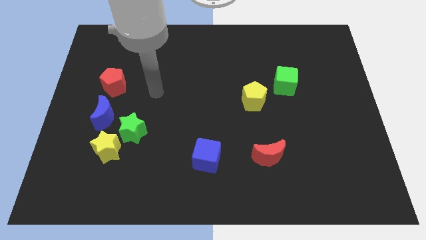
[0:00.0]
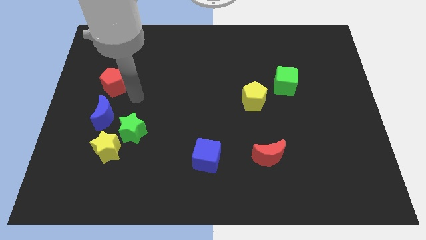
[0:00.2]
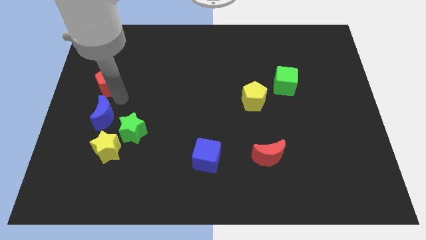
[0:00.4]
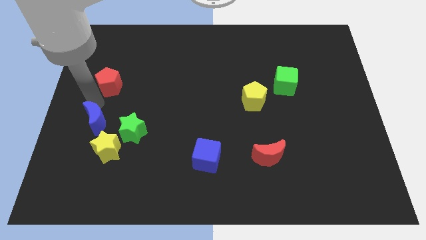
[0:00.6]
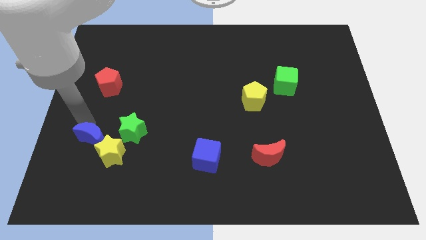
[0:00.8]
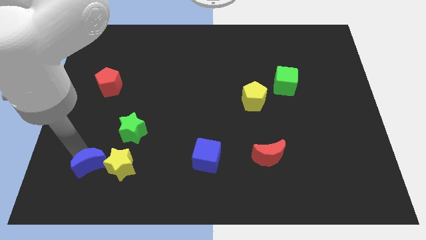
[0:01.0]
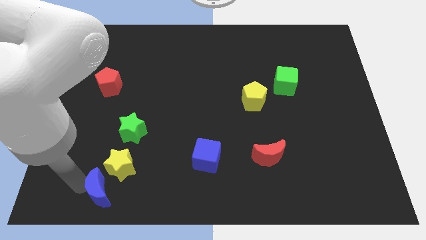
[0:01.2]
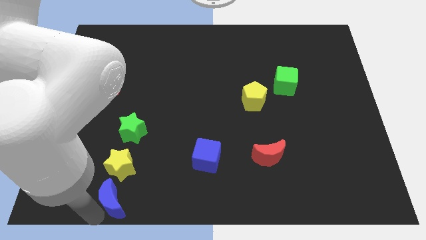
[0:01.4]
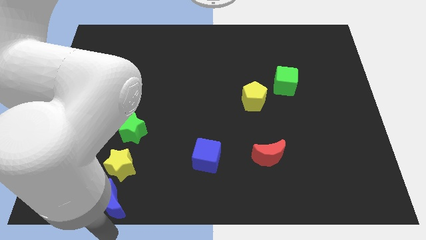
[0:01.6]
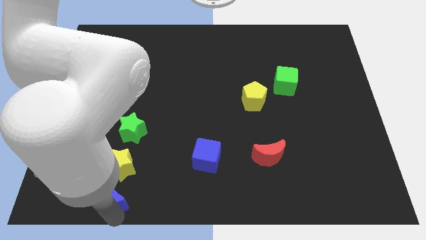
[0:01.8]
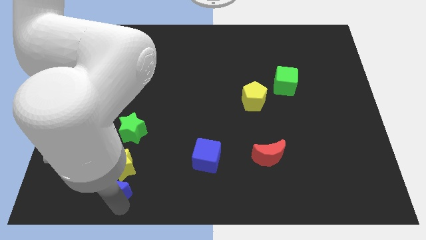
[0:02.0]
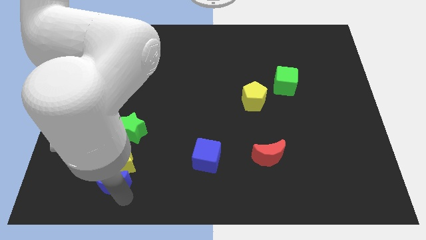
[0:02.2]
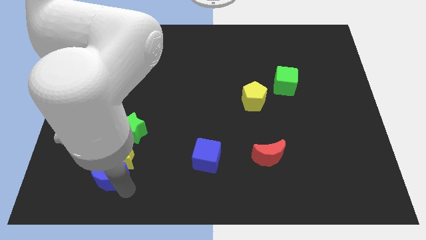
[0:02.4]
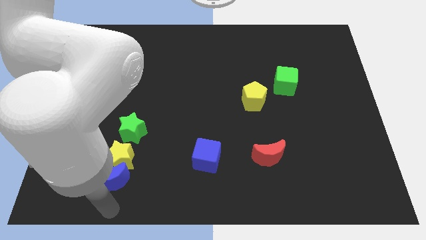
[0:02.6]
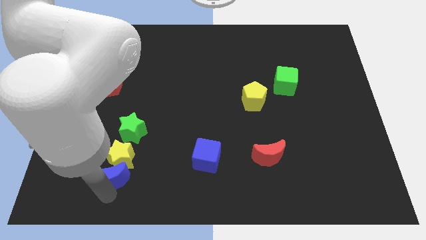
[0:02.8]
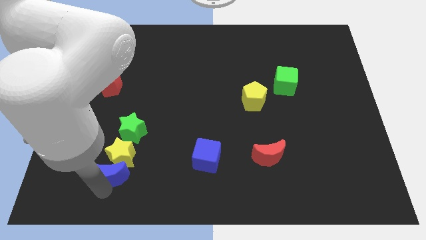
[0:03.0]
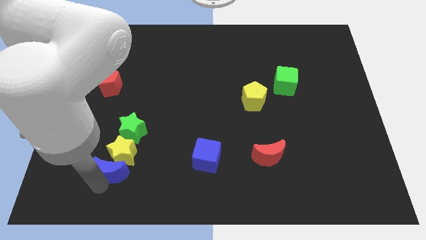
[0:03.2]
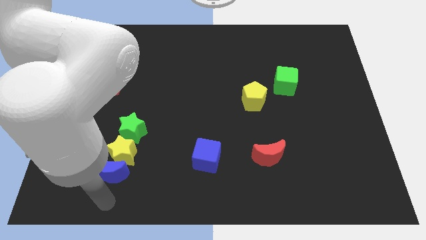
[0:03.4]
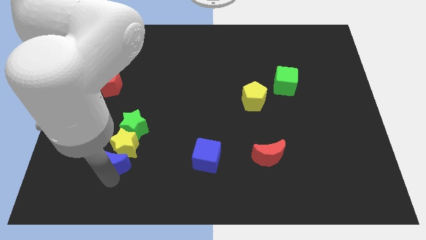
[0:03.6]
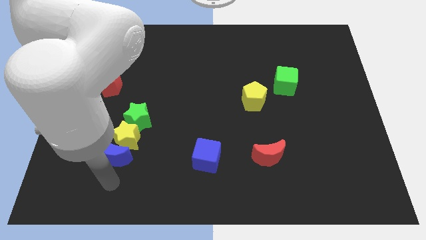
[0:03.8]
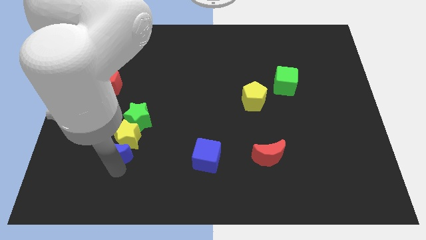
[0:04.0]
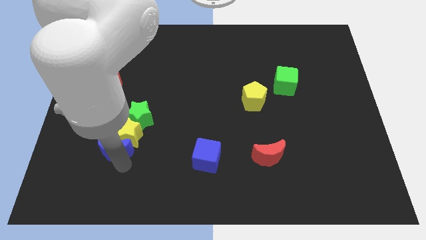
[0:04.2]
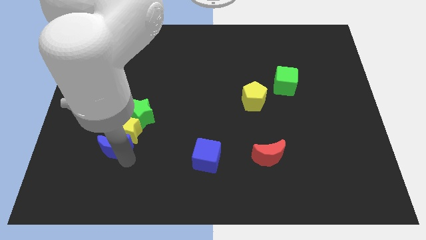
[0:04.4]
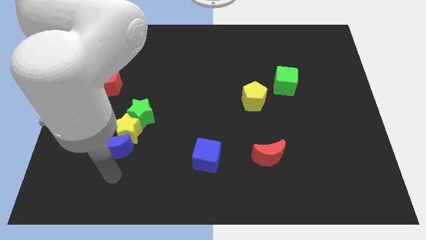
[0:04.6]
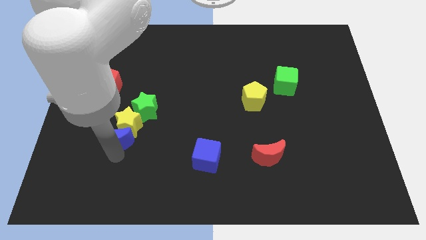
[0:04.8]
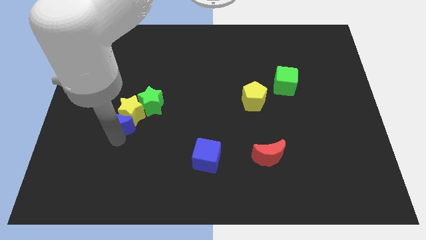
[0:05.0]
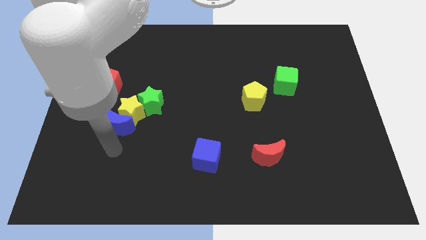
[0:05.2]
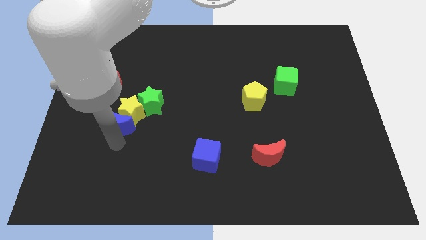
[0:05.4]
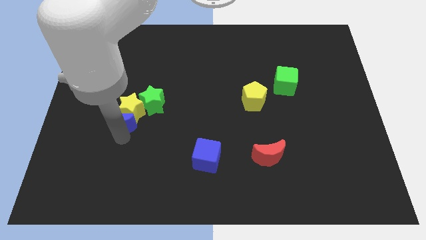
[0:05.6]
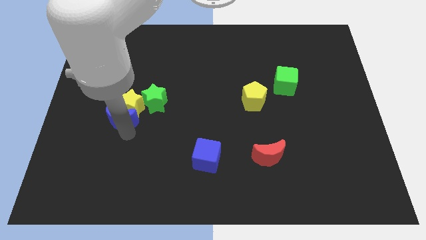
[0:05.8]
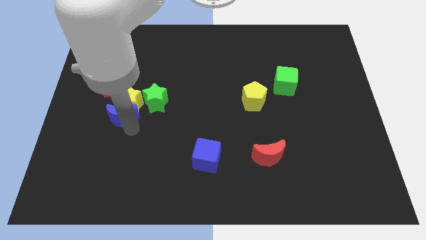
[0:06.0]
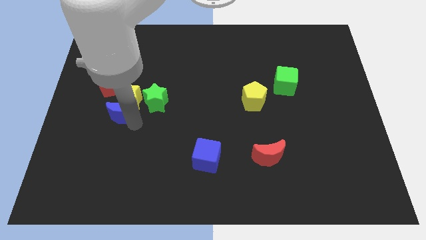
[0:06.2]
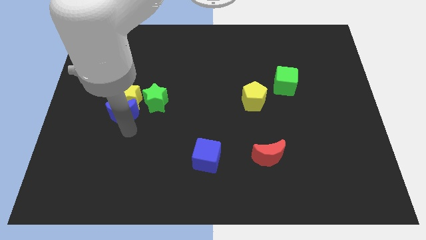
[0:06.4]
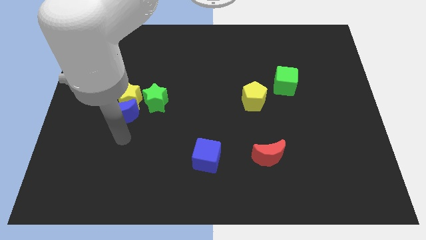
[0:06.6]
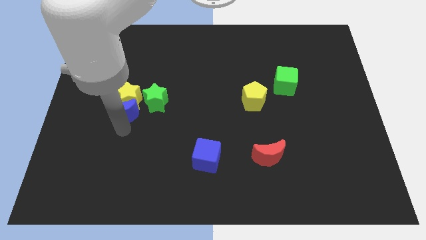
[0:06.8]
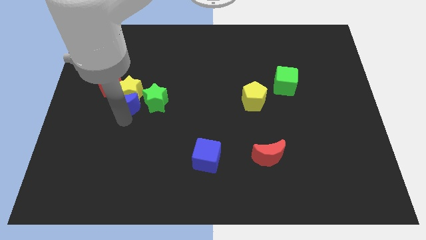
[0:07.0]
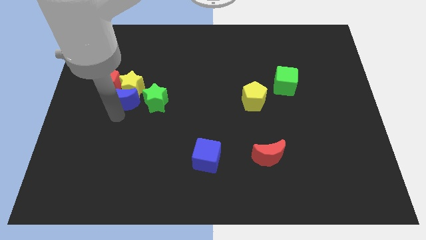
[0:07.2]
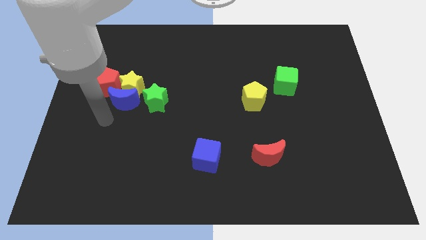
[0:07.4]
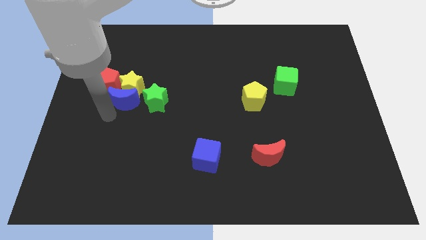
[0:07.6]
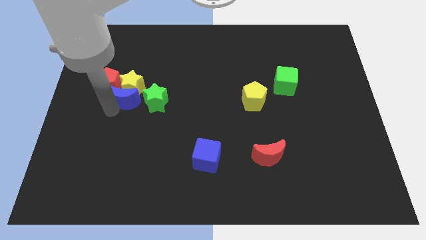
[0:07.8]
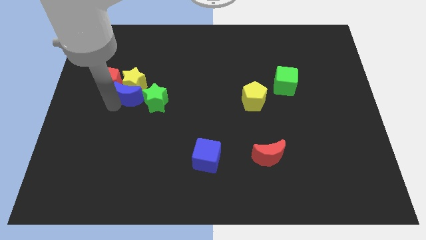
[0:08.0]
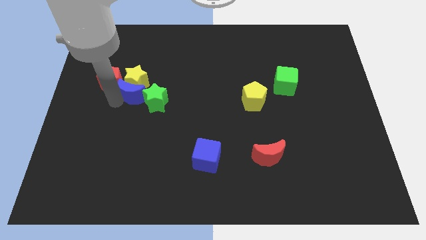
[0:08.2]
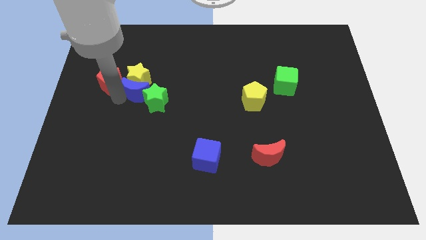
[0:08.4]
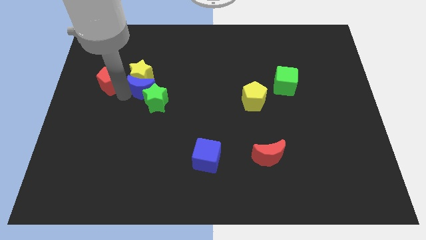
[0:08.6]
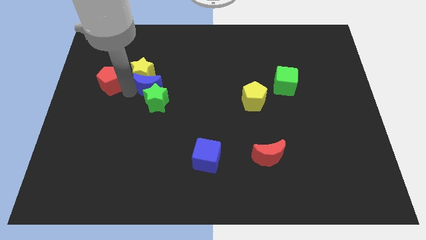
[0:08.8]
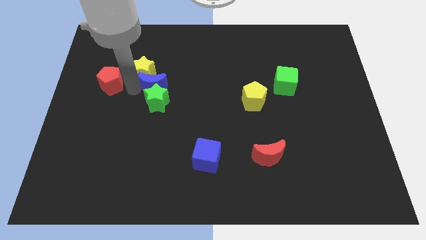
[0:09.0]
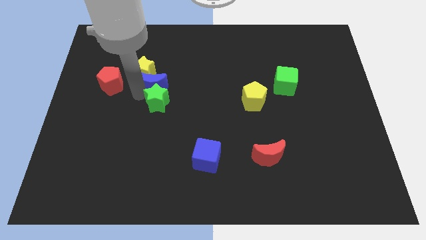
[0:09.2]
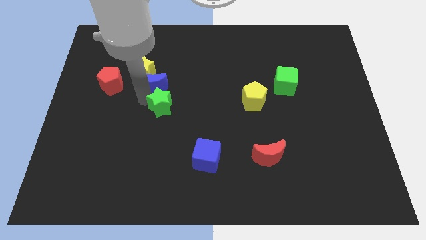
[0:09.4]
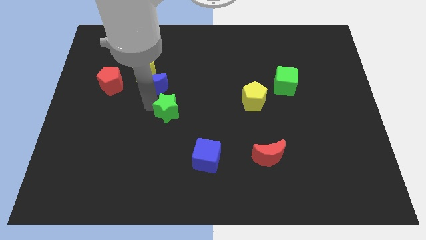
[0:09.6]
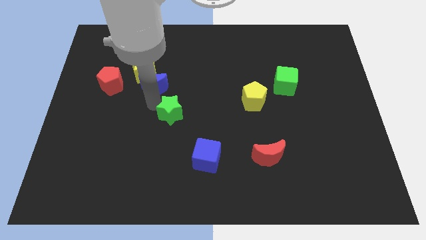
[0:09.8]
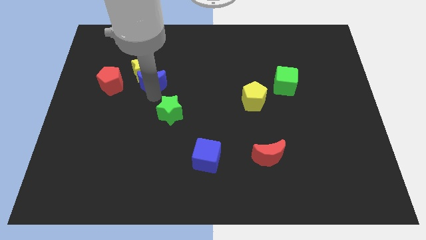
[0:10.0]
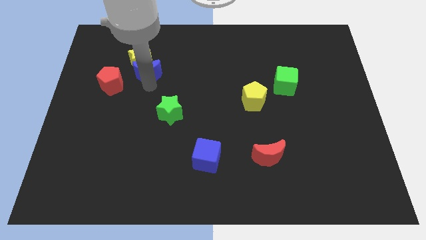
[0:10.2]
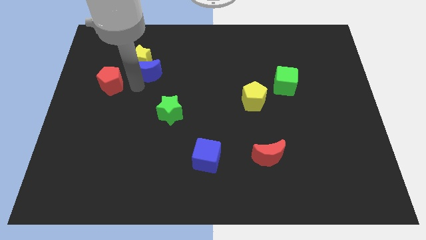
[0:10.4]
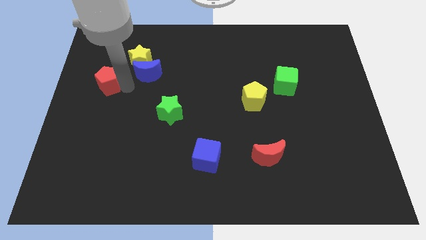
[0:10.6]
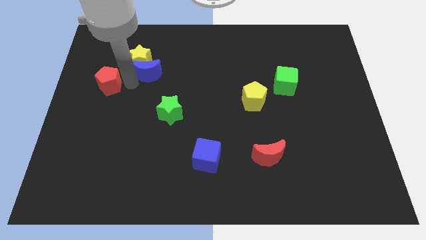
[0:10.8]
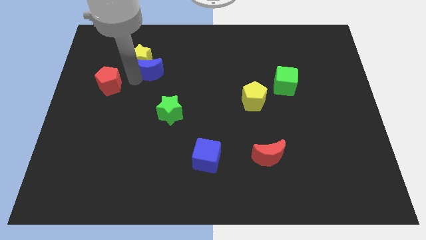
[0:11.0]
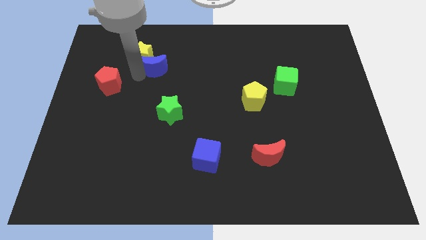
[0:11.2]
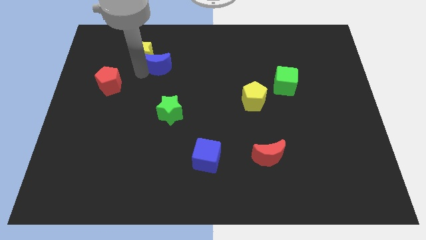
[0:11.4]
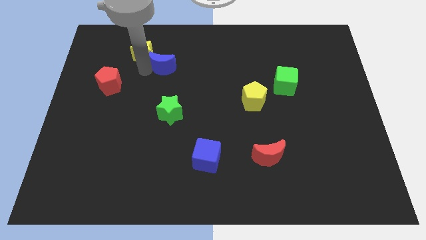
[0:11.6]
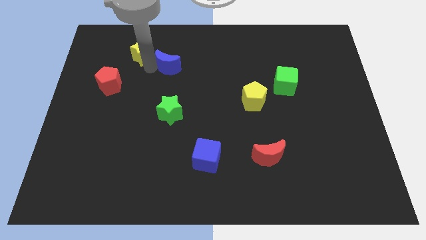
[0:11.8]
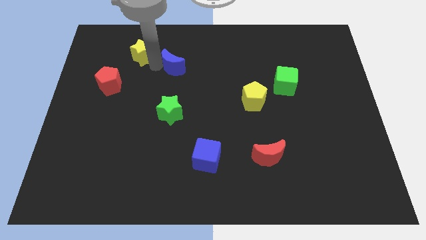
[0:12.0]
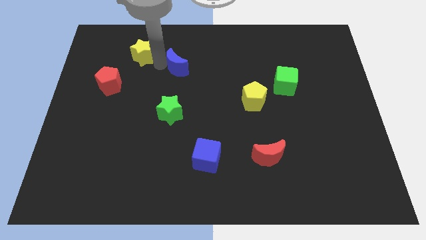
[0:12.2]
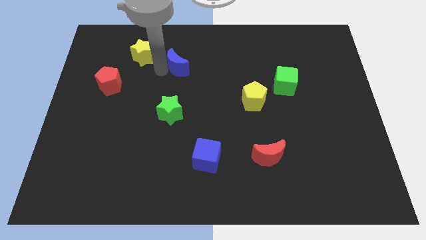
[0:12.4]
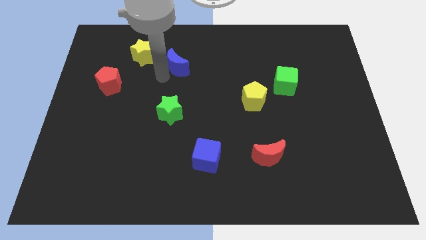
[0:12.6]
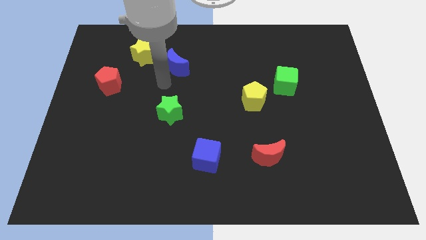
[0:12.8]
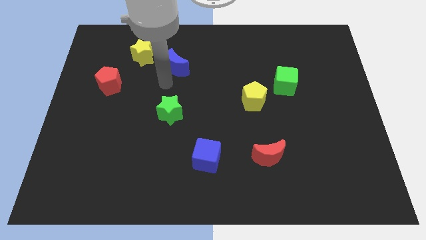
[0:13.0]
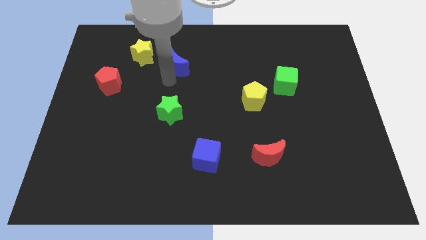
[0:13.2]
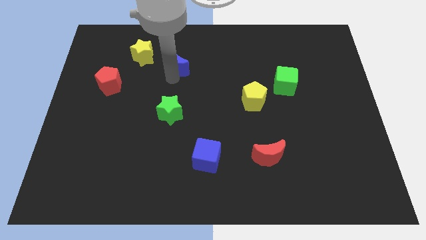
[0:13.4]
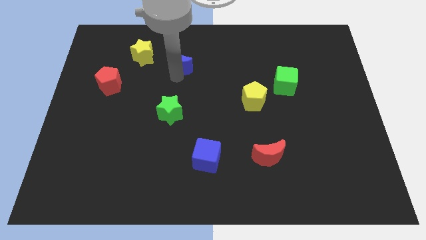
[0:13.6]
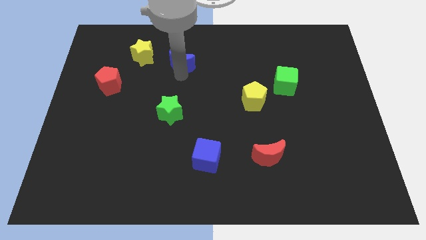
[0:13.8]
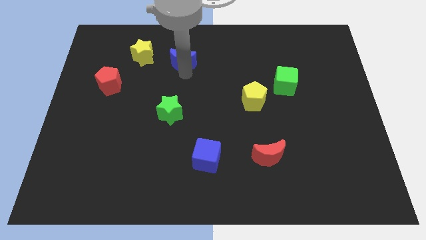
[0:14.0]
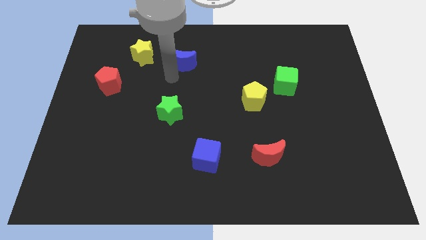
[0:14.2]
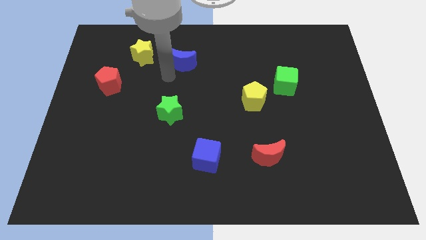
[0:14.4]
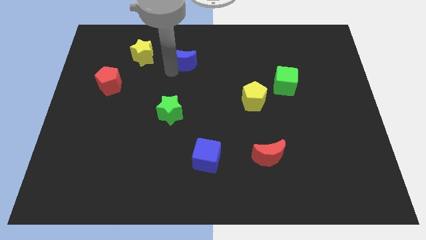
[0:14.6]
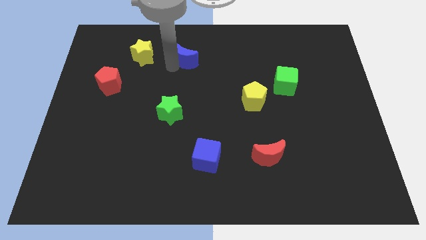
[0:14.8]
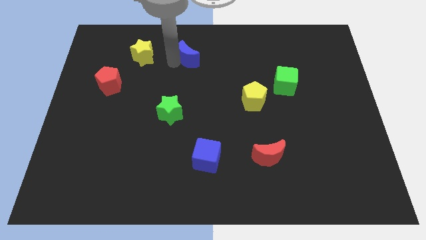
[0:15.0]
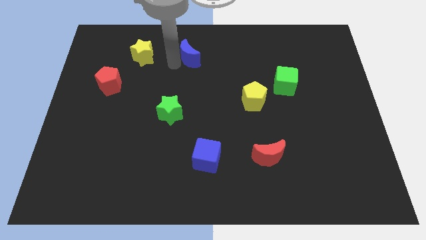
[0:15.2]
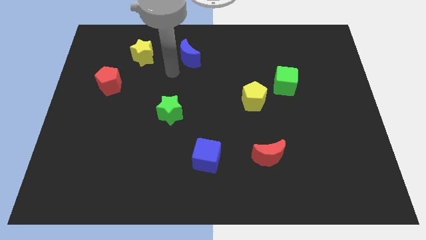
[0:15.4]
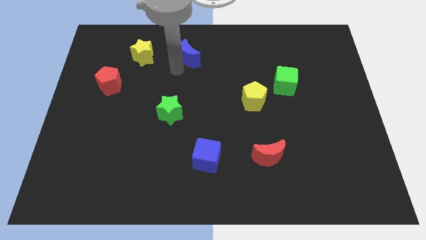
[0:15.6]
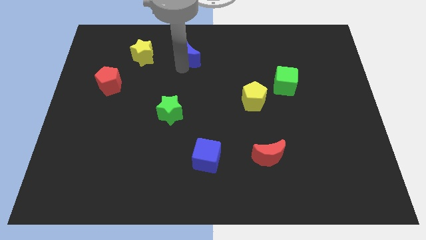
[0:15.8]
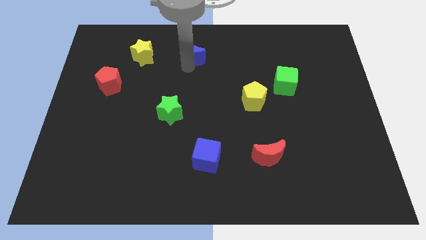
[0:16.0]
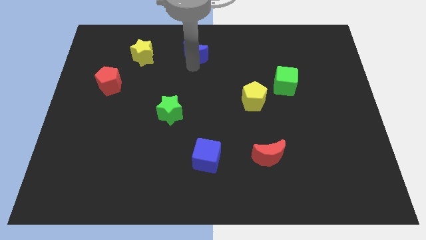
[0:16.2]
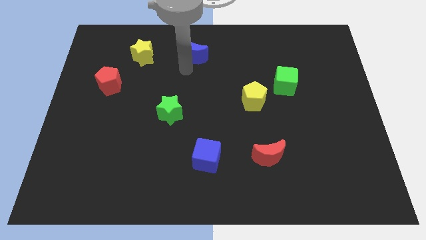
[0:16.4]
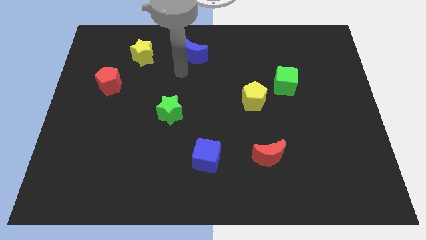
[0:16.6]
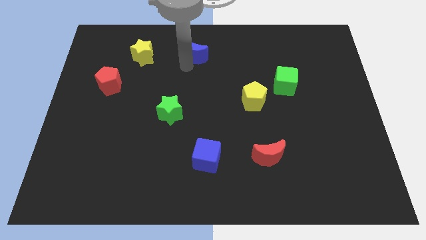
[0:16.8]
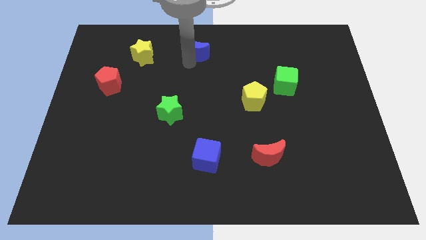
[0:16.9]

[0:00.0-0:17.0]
put the blue moon to the top side
